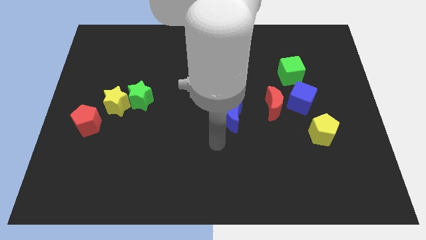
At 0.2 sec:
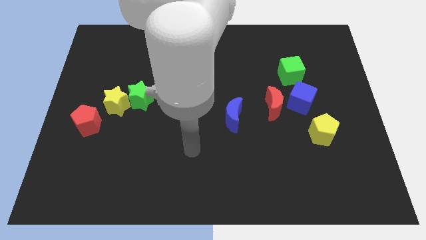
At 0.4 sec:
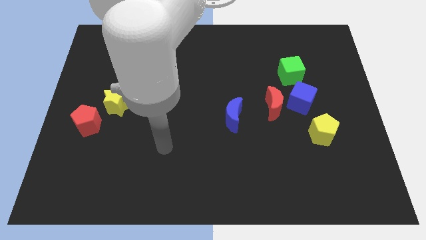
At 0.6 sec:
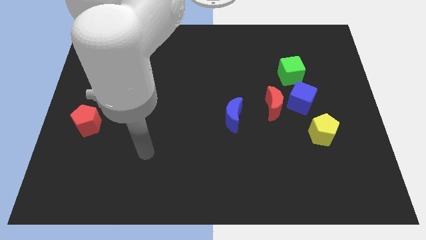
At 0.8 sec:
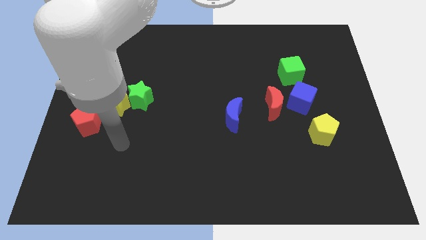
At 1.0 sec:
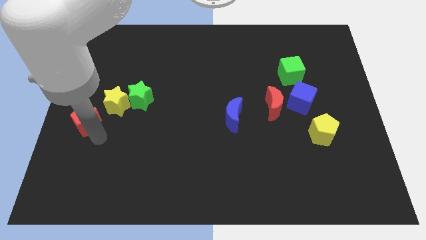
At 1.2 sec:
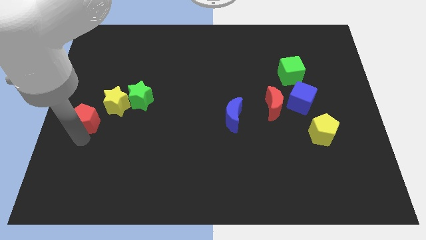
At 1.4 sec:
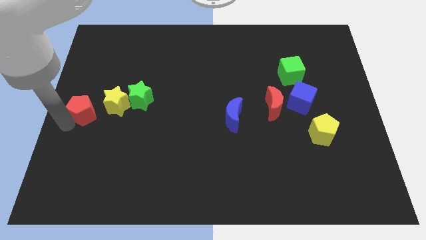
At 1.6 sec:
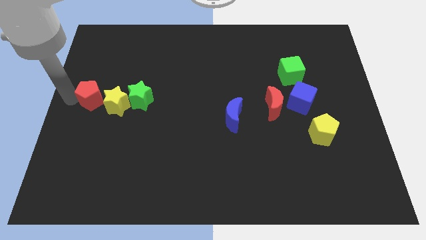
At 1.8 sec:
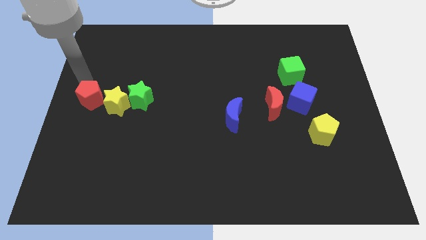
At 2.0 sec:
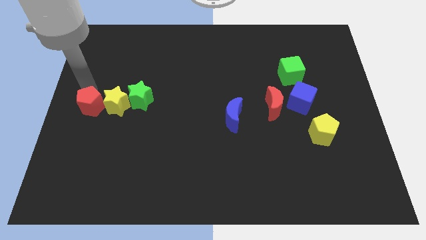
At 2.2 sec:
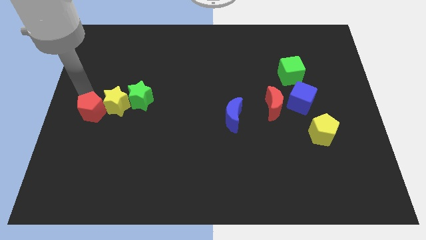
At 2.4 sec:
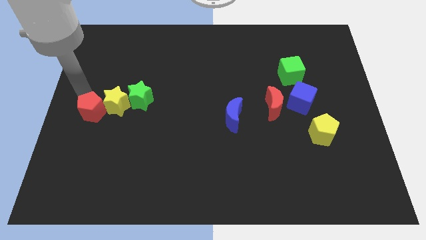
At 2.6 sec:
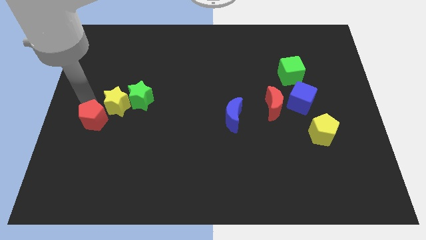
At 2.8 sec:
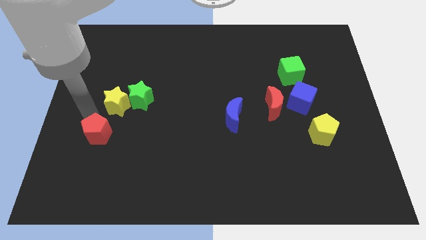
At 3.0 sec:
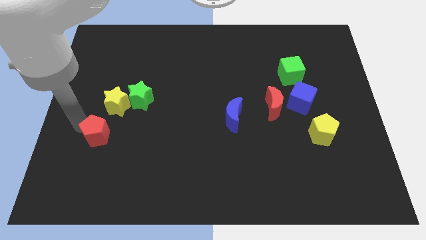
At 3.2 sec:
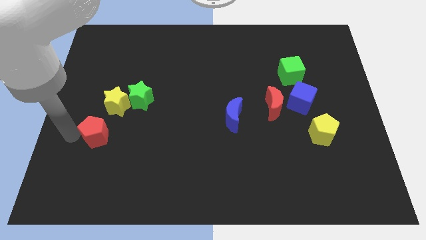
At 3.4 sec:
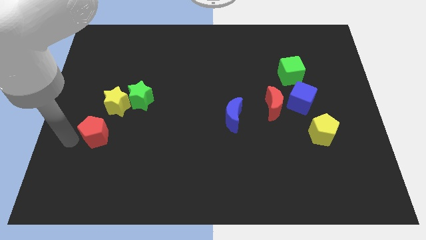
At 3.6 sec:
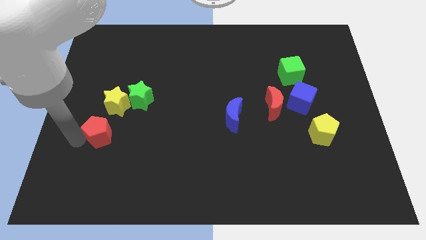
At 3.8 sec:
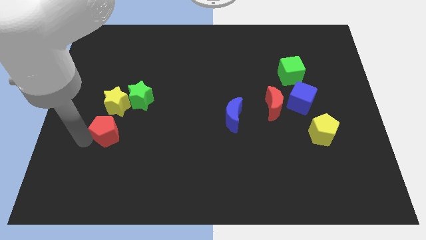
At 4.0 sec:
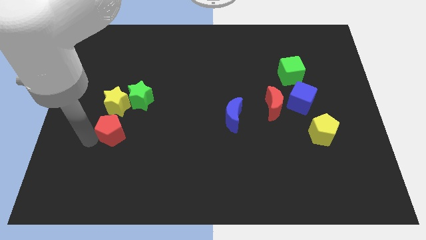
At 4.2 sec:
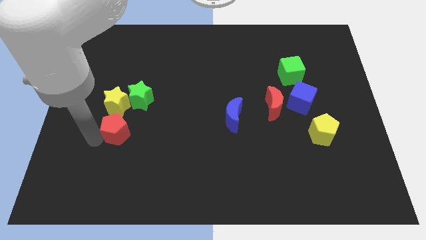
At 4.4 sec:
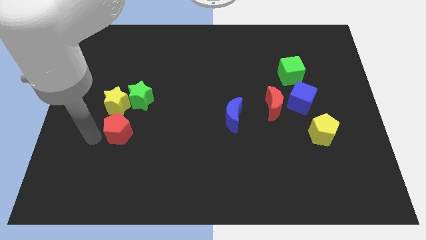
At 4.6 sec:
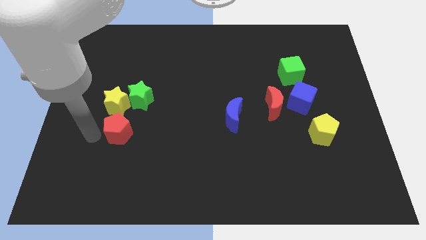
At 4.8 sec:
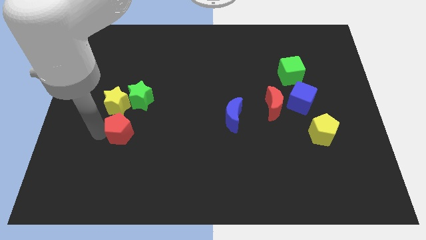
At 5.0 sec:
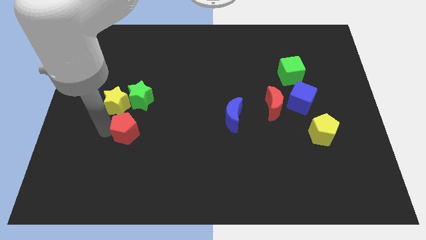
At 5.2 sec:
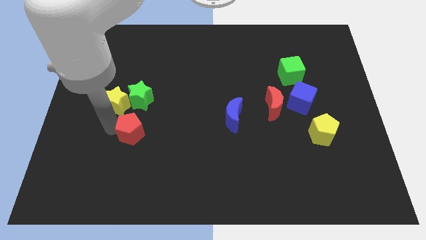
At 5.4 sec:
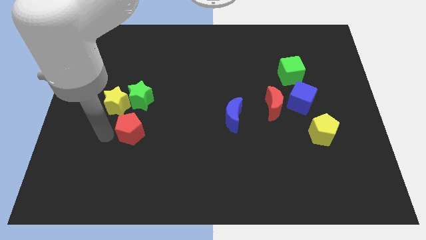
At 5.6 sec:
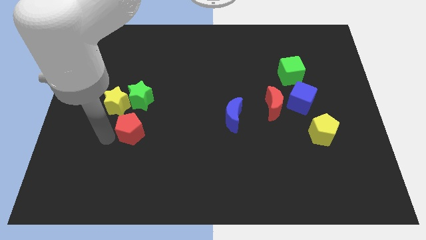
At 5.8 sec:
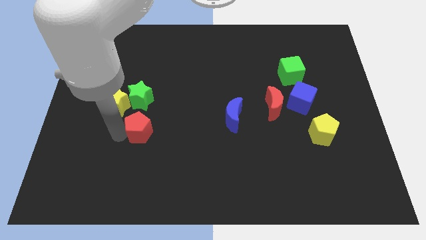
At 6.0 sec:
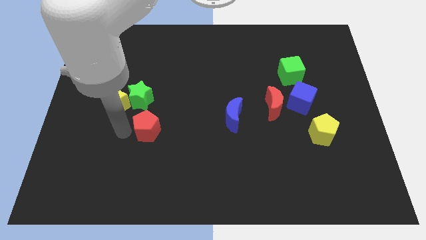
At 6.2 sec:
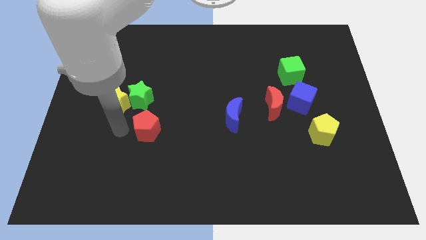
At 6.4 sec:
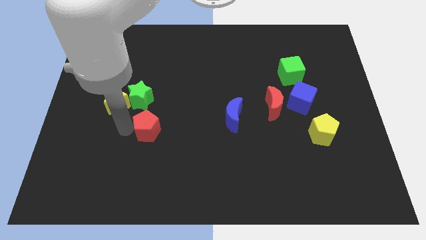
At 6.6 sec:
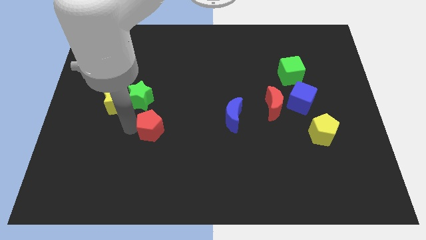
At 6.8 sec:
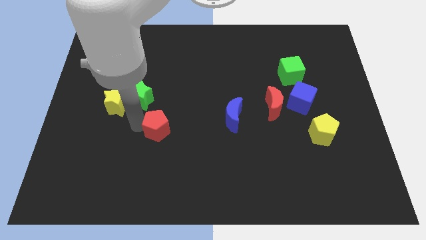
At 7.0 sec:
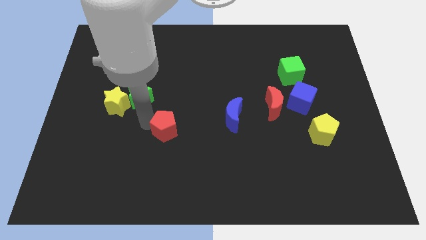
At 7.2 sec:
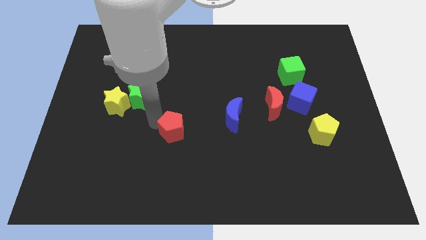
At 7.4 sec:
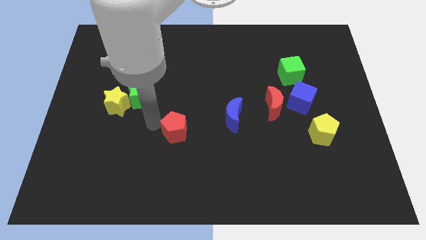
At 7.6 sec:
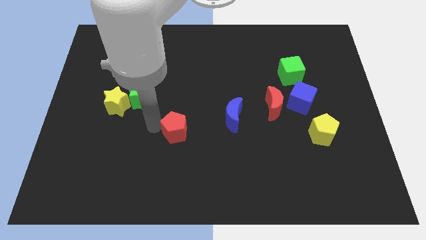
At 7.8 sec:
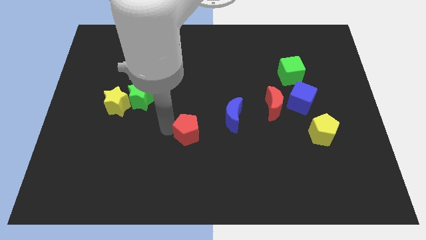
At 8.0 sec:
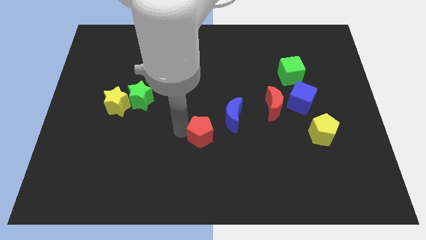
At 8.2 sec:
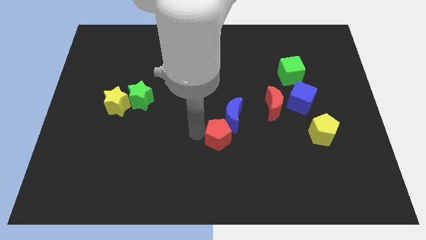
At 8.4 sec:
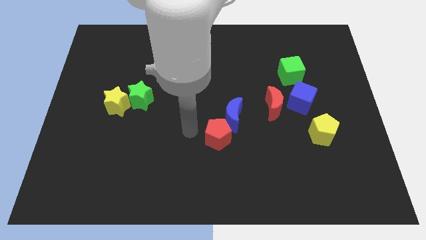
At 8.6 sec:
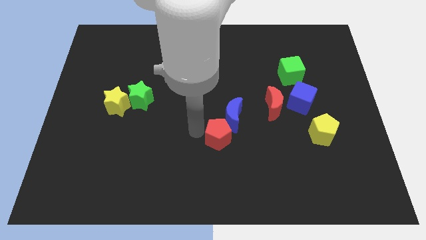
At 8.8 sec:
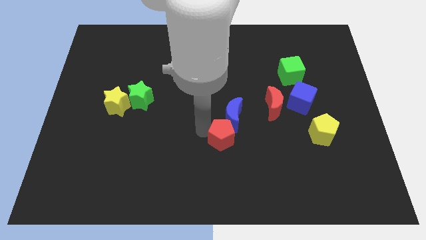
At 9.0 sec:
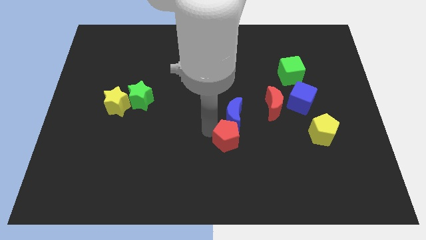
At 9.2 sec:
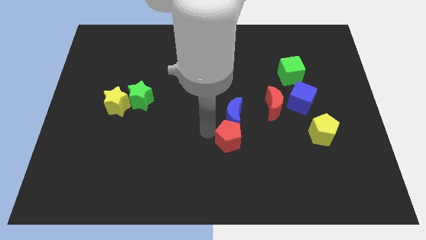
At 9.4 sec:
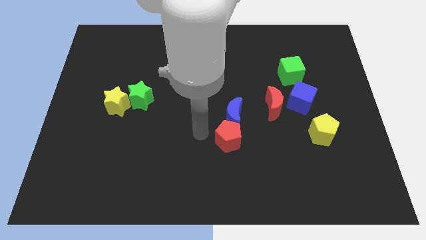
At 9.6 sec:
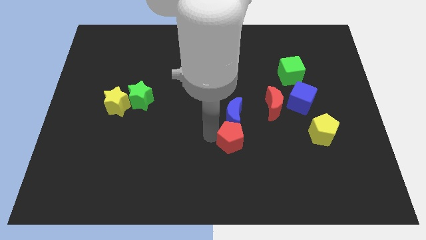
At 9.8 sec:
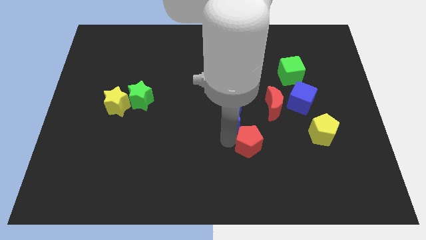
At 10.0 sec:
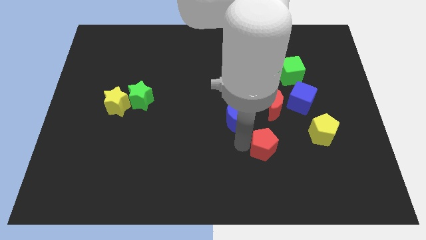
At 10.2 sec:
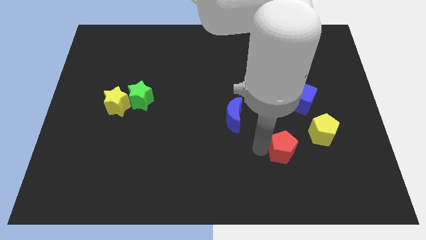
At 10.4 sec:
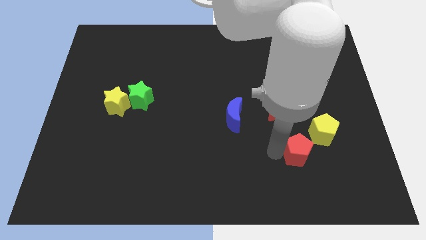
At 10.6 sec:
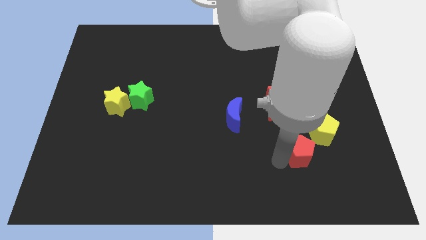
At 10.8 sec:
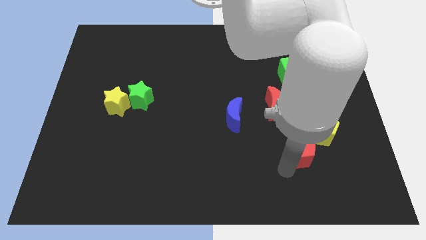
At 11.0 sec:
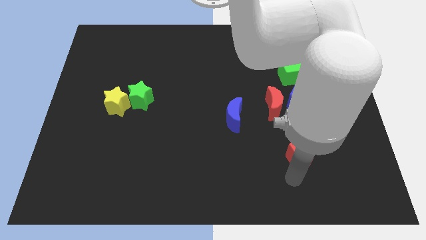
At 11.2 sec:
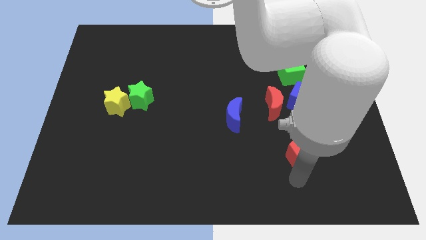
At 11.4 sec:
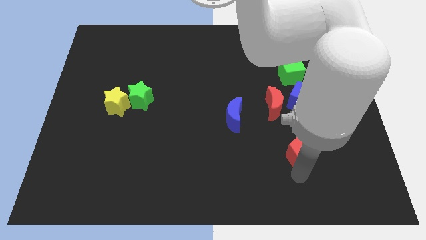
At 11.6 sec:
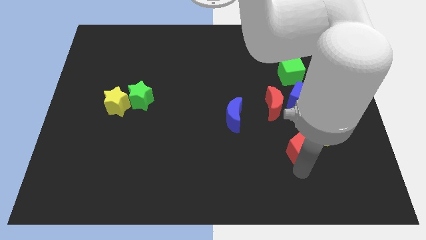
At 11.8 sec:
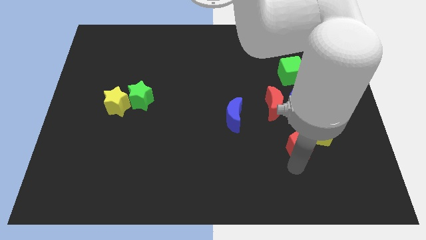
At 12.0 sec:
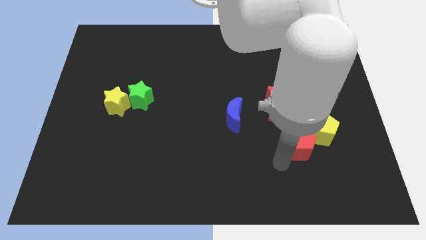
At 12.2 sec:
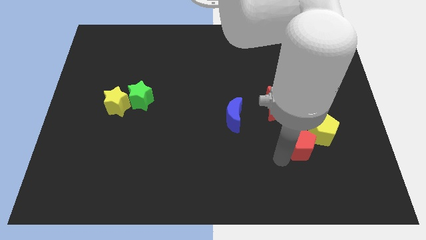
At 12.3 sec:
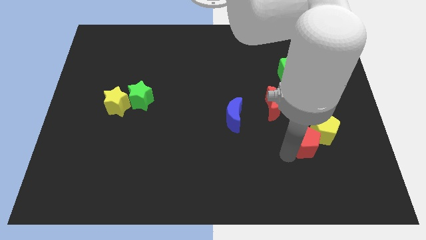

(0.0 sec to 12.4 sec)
slide the red pentagon to the yellow pentagon
